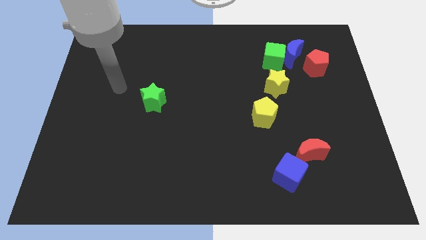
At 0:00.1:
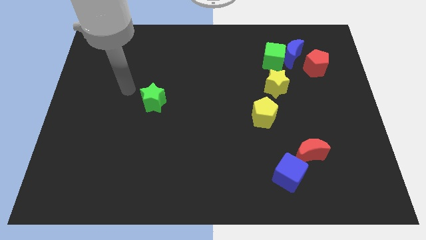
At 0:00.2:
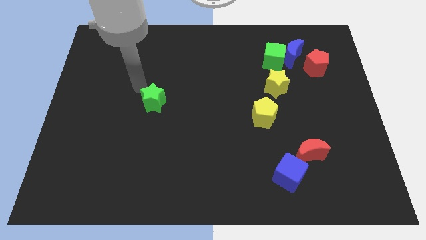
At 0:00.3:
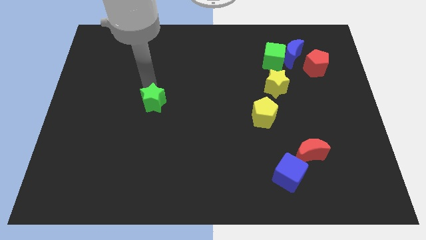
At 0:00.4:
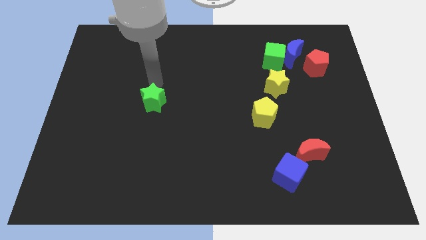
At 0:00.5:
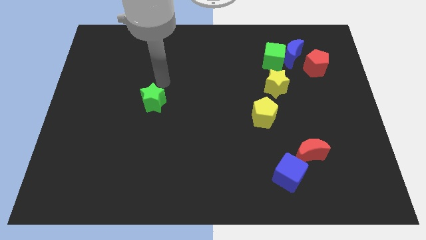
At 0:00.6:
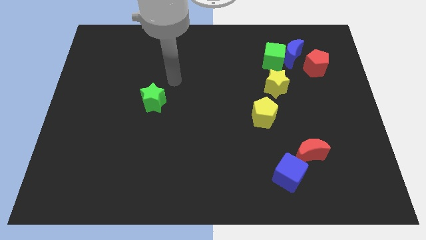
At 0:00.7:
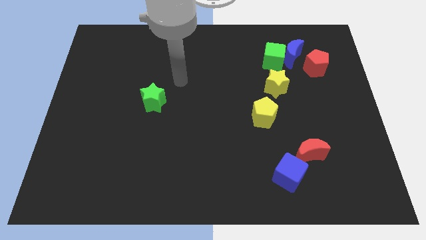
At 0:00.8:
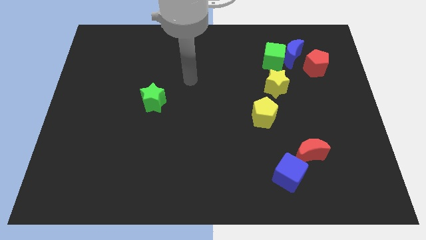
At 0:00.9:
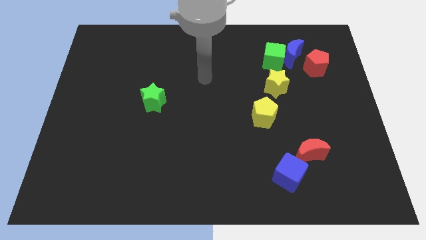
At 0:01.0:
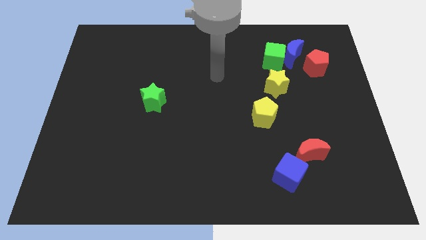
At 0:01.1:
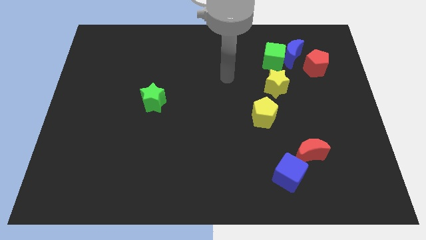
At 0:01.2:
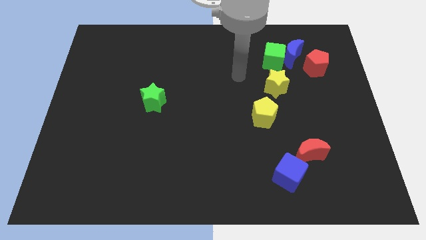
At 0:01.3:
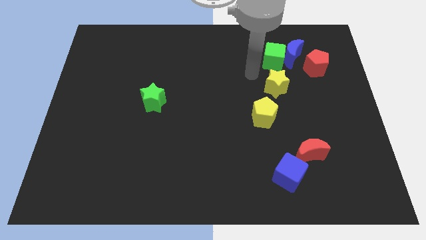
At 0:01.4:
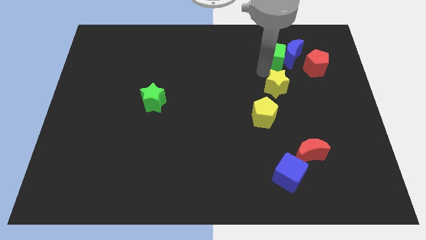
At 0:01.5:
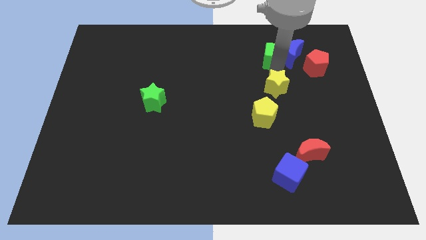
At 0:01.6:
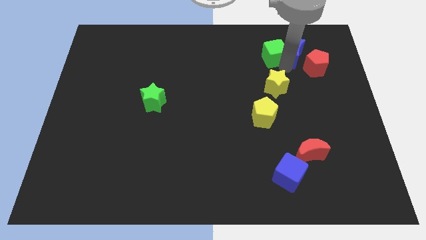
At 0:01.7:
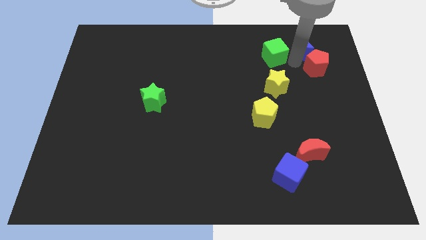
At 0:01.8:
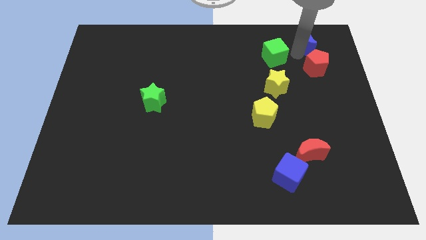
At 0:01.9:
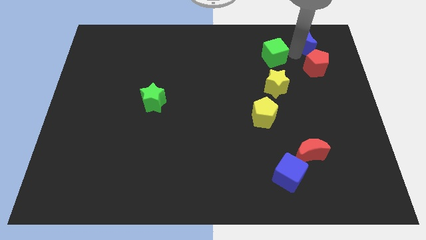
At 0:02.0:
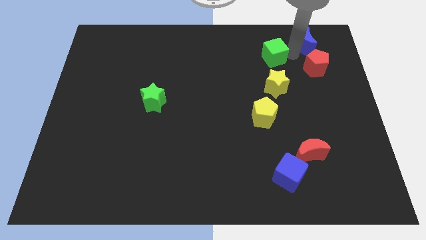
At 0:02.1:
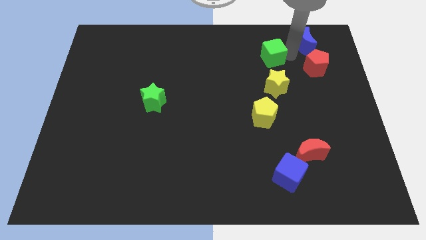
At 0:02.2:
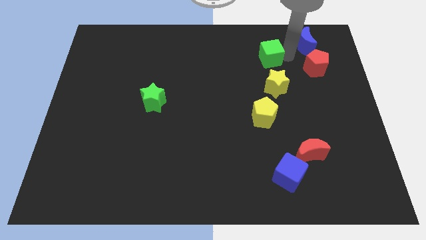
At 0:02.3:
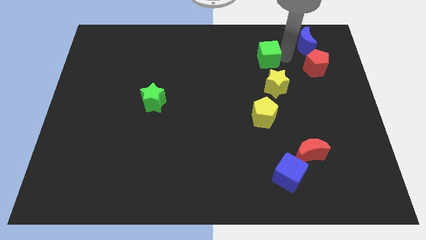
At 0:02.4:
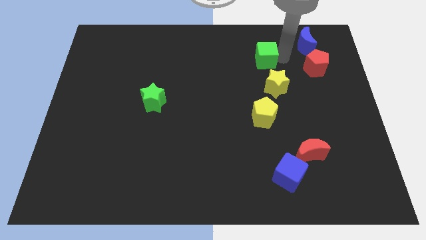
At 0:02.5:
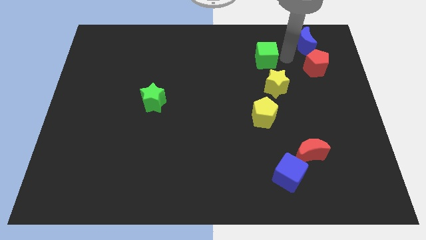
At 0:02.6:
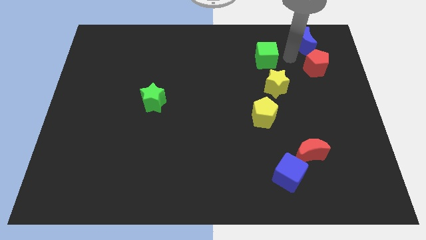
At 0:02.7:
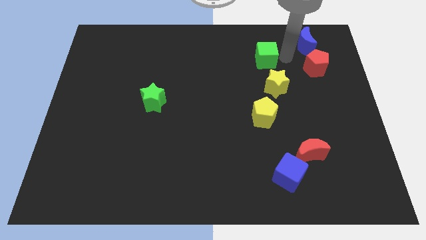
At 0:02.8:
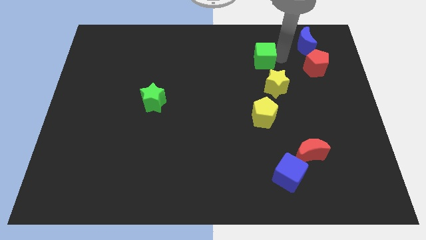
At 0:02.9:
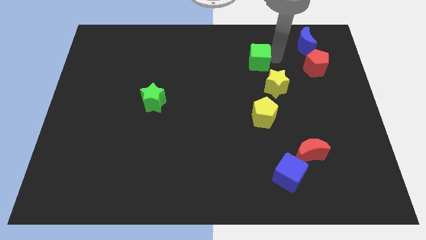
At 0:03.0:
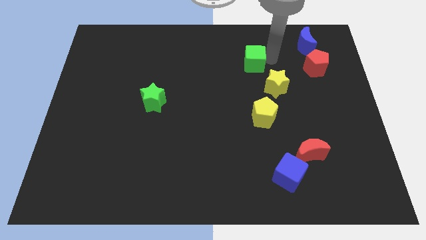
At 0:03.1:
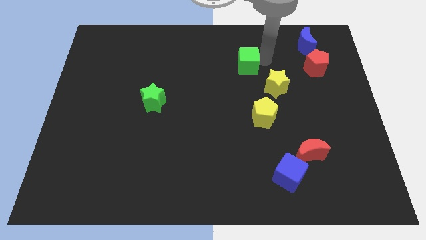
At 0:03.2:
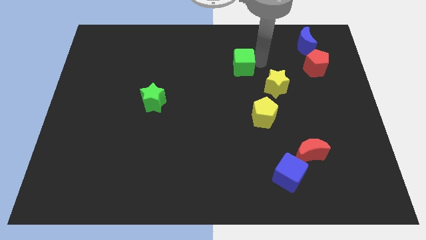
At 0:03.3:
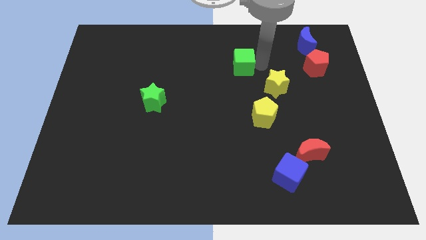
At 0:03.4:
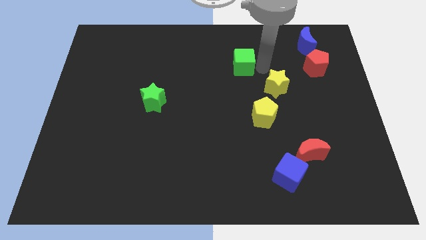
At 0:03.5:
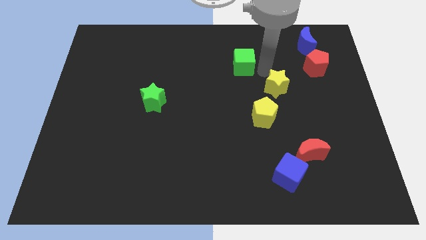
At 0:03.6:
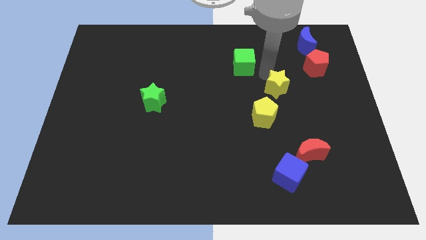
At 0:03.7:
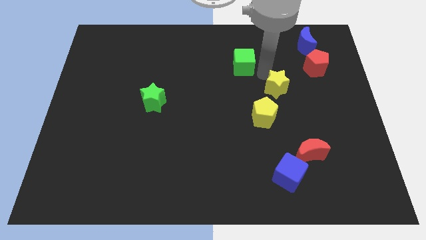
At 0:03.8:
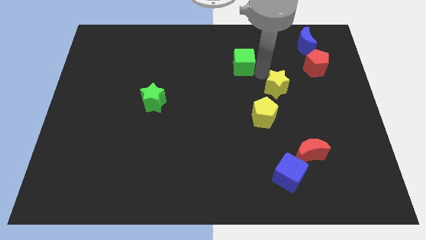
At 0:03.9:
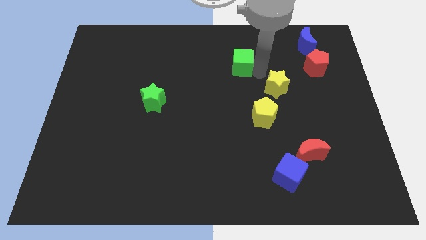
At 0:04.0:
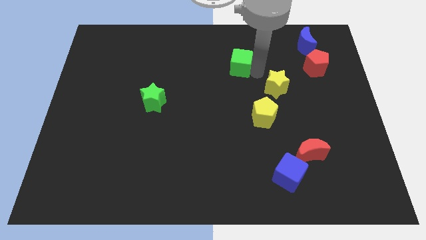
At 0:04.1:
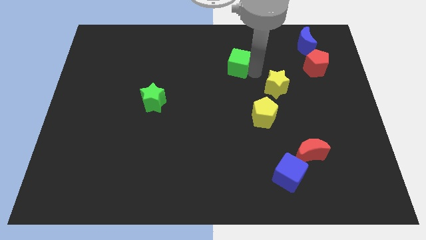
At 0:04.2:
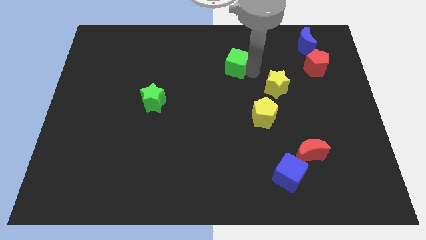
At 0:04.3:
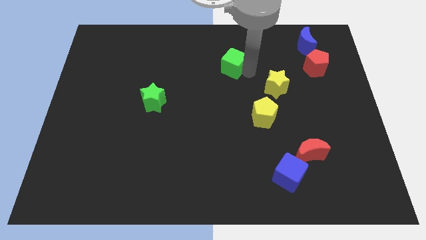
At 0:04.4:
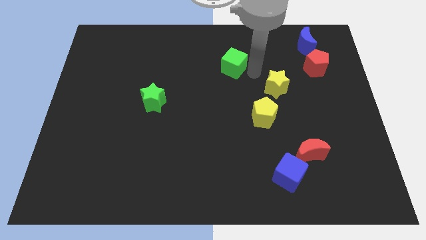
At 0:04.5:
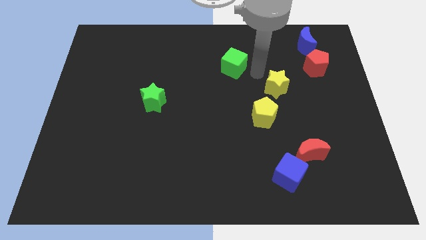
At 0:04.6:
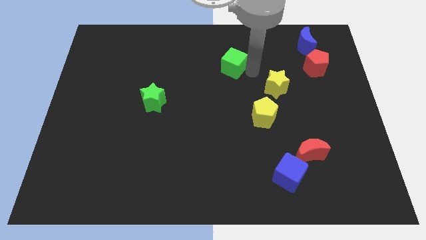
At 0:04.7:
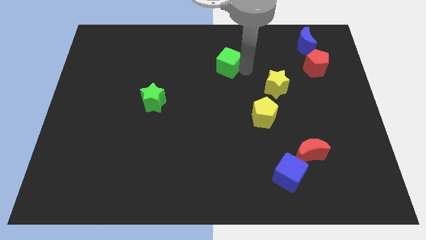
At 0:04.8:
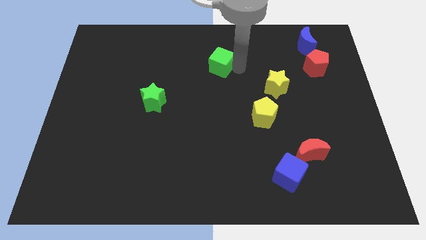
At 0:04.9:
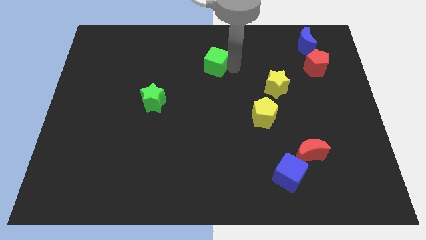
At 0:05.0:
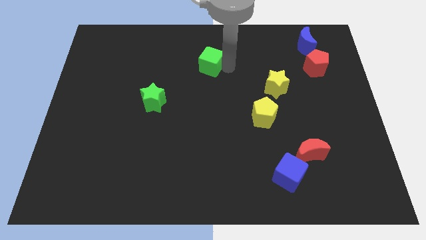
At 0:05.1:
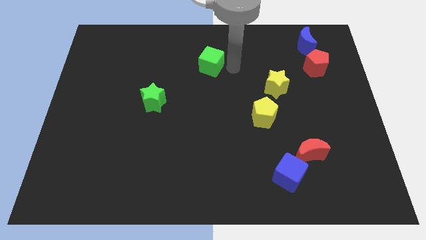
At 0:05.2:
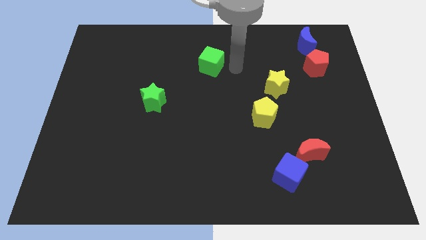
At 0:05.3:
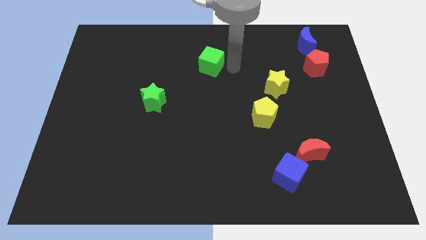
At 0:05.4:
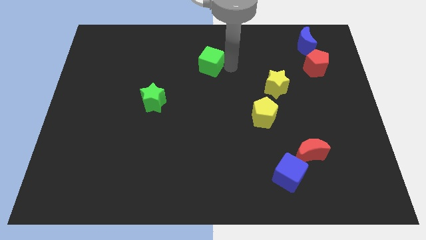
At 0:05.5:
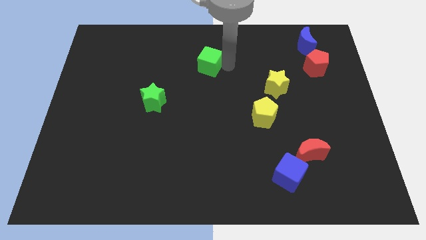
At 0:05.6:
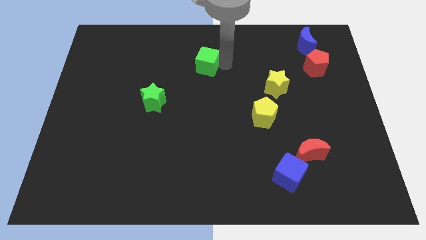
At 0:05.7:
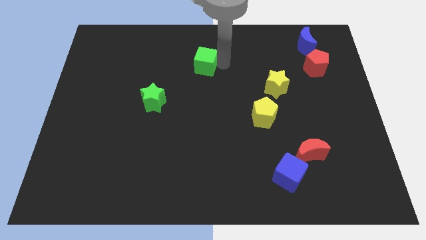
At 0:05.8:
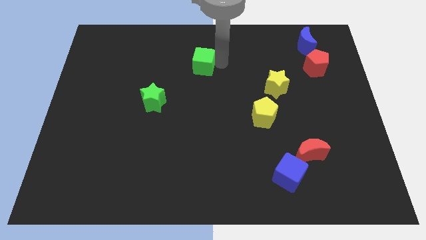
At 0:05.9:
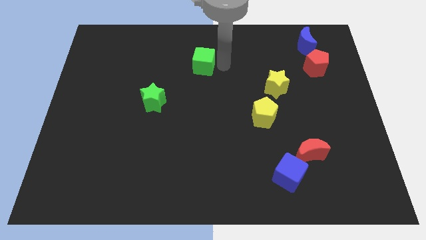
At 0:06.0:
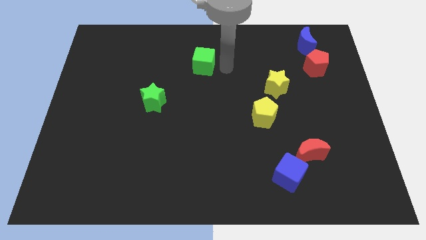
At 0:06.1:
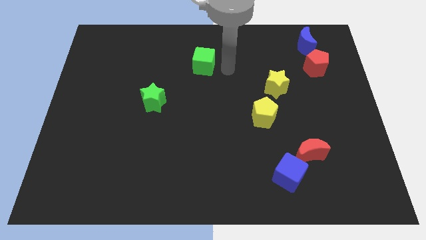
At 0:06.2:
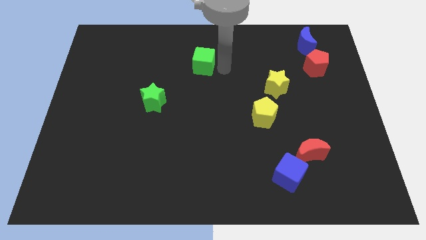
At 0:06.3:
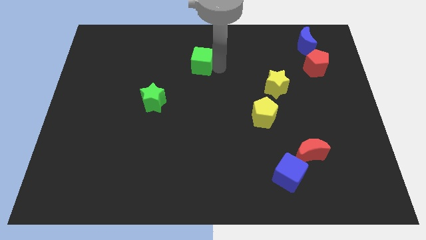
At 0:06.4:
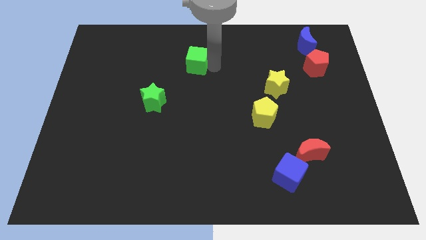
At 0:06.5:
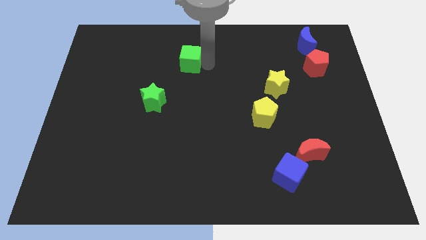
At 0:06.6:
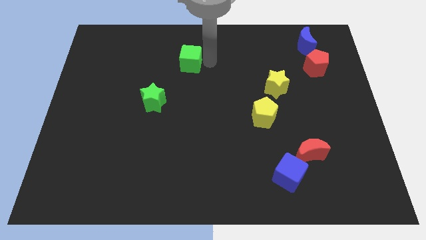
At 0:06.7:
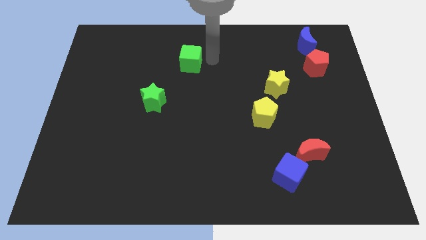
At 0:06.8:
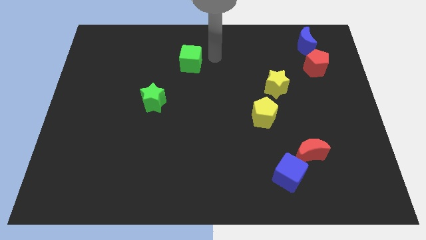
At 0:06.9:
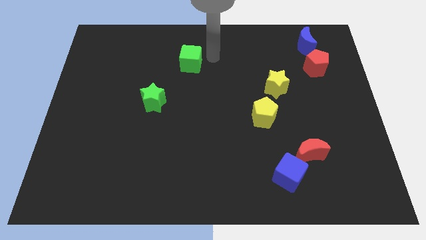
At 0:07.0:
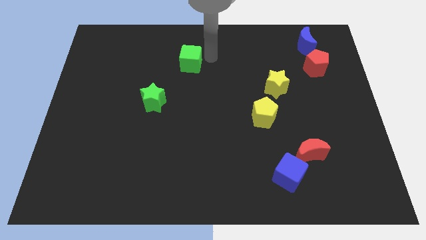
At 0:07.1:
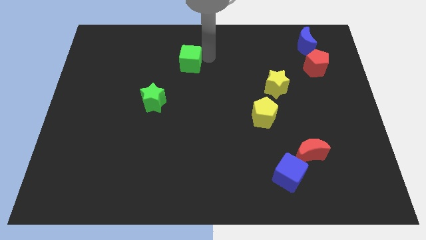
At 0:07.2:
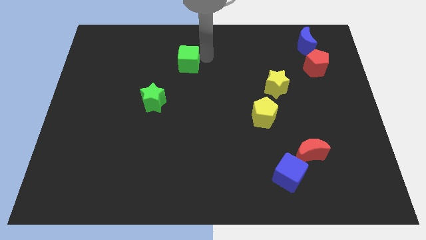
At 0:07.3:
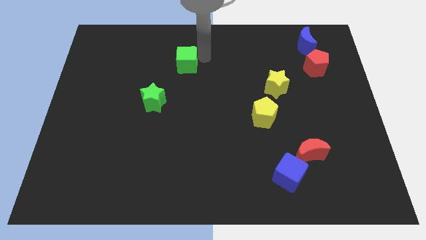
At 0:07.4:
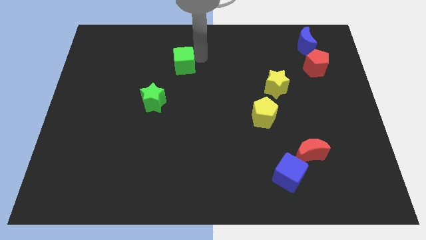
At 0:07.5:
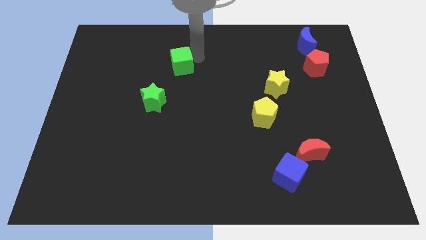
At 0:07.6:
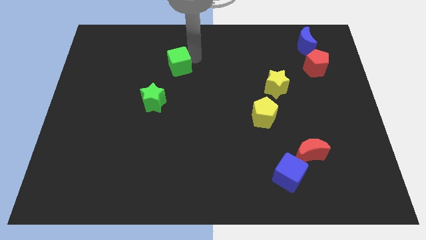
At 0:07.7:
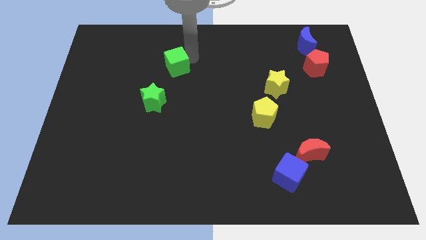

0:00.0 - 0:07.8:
move the green cube above the green star
